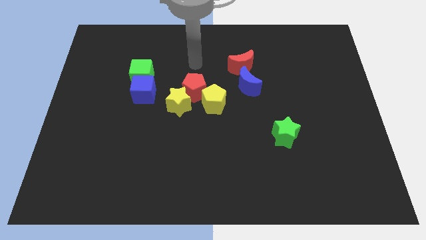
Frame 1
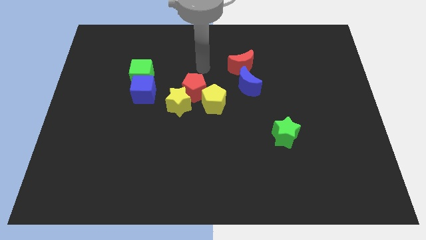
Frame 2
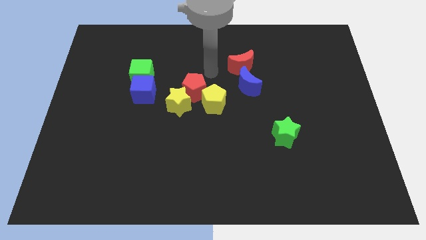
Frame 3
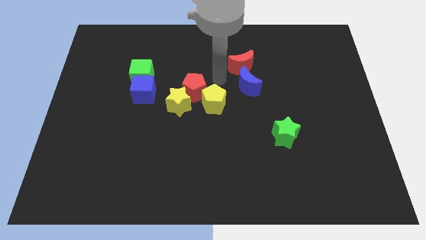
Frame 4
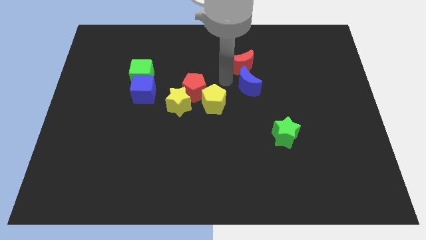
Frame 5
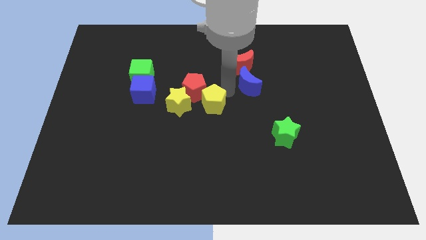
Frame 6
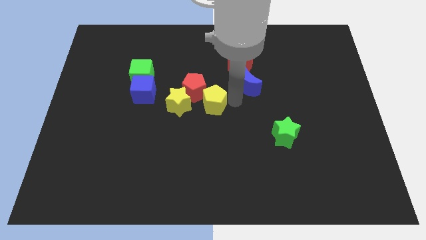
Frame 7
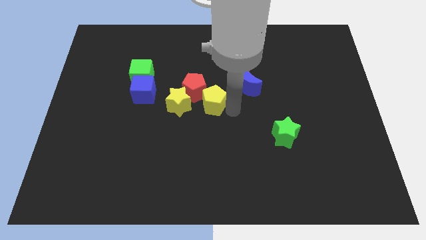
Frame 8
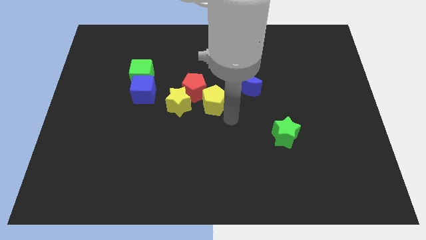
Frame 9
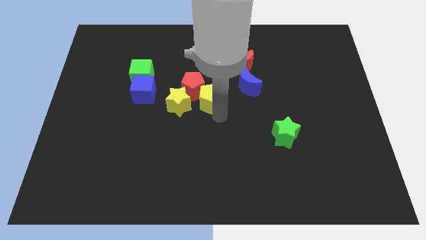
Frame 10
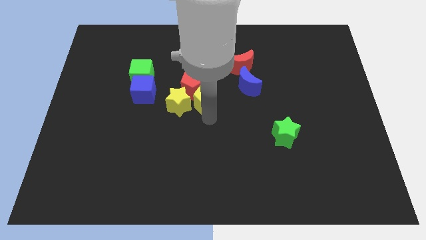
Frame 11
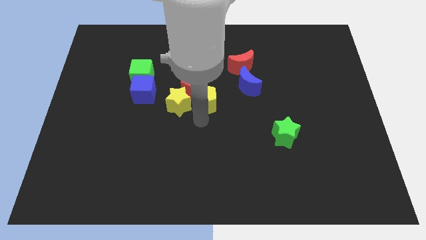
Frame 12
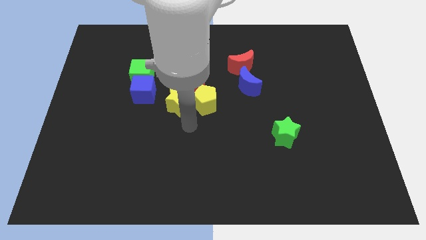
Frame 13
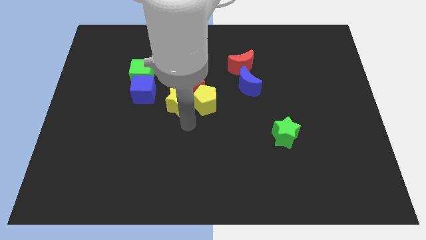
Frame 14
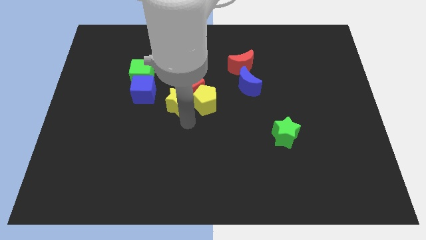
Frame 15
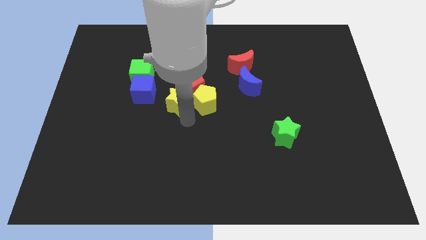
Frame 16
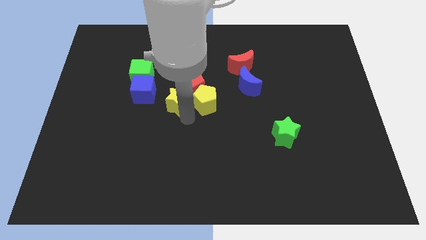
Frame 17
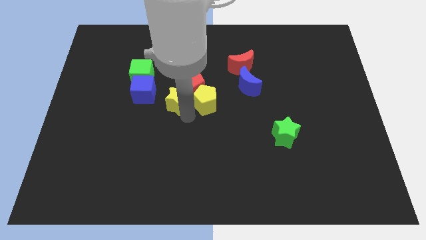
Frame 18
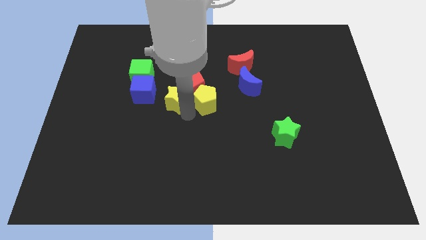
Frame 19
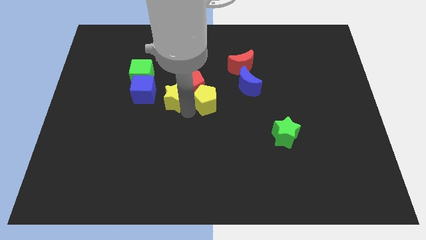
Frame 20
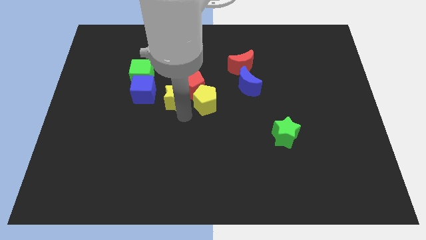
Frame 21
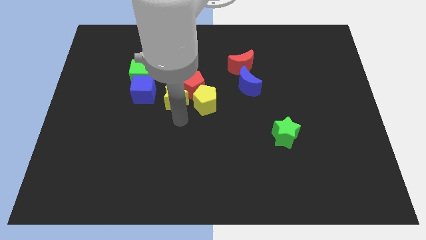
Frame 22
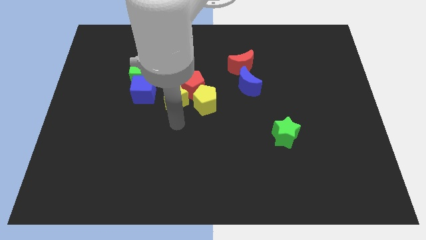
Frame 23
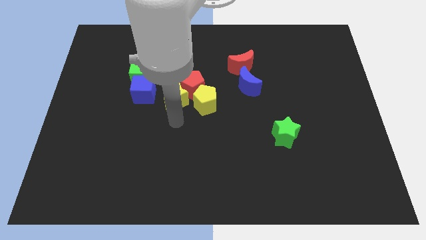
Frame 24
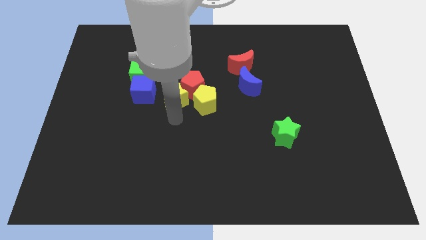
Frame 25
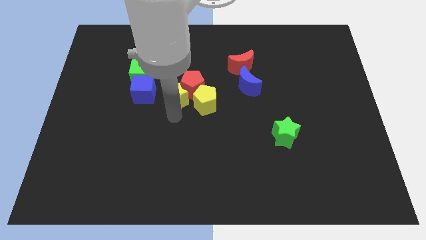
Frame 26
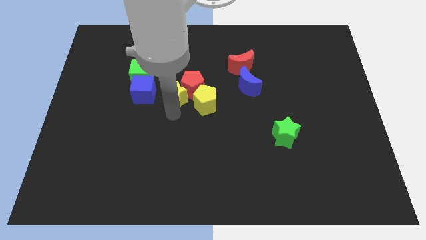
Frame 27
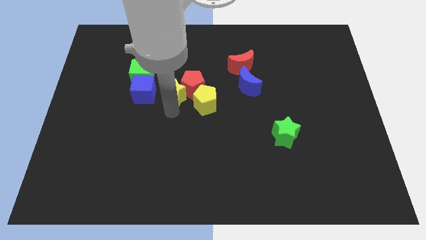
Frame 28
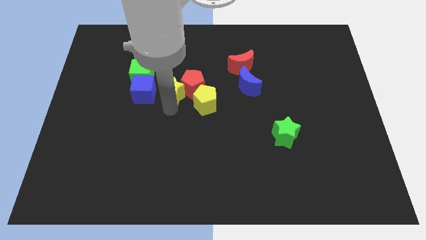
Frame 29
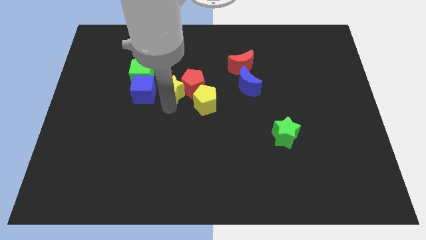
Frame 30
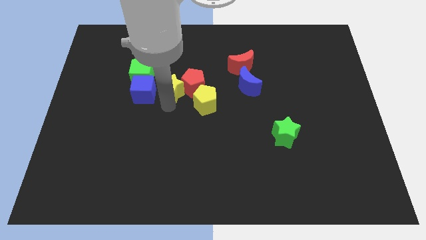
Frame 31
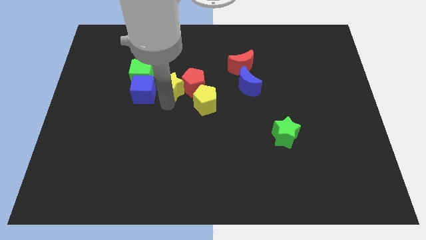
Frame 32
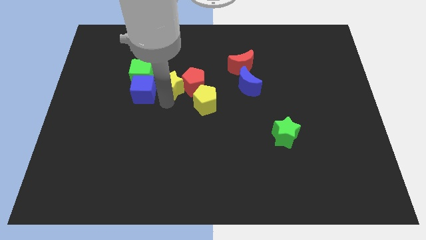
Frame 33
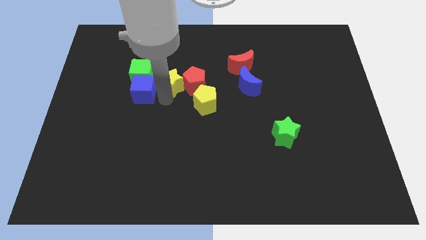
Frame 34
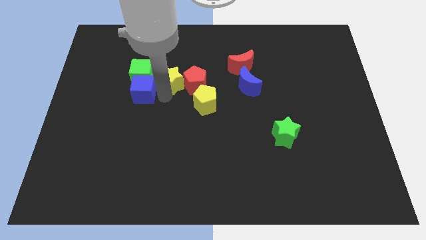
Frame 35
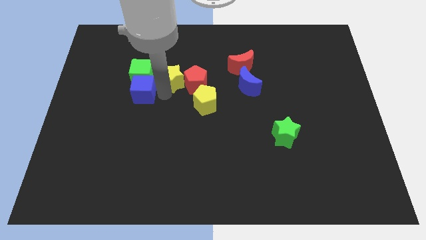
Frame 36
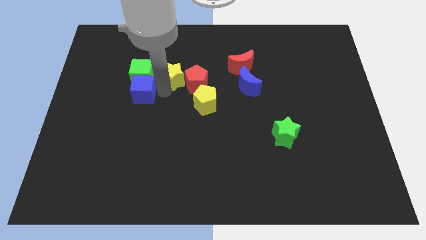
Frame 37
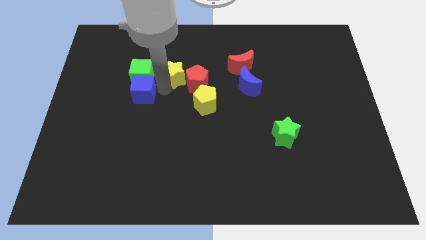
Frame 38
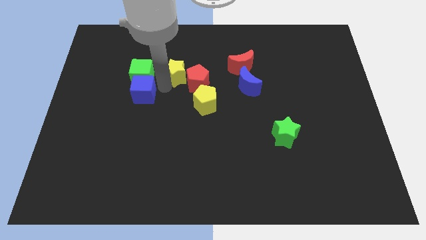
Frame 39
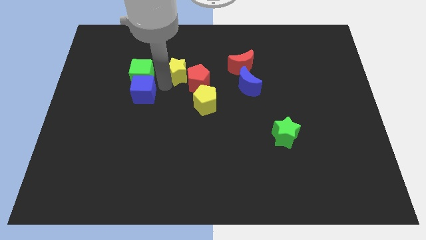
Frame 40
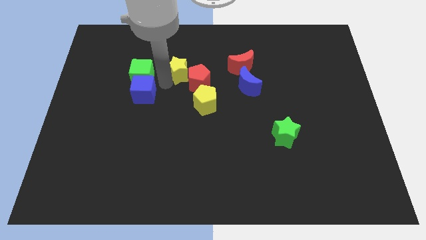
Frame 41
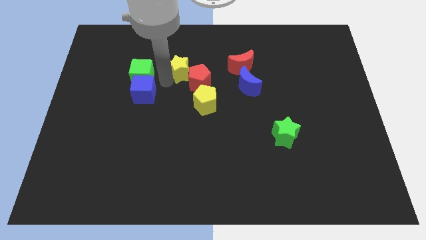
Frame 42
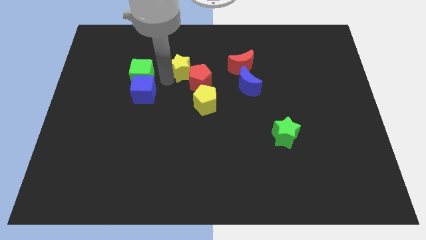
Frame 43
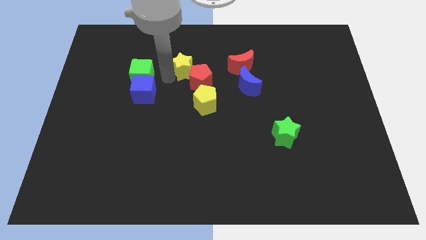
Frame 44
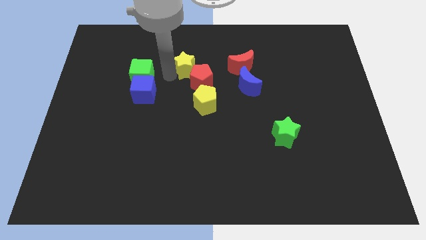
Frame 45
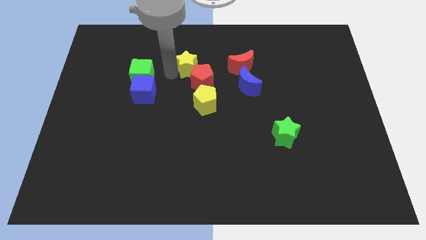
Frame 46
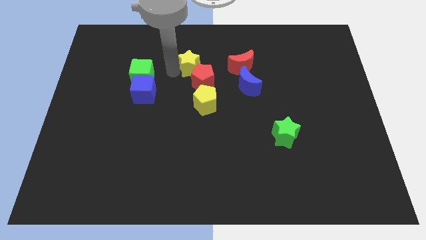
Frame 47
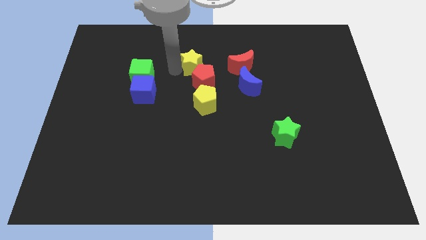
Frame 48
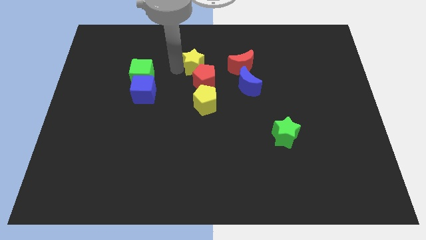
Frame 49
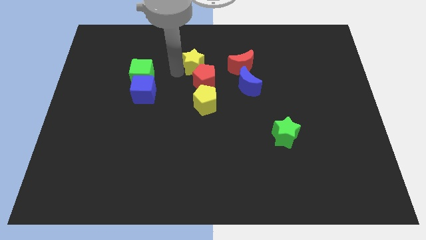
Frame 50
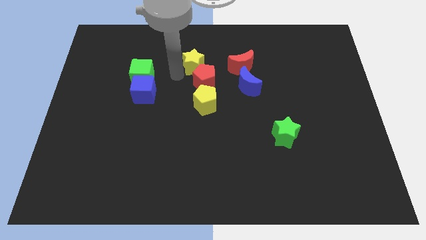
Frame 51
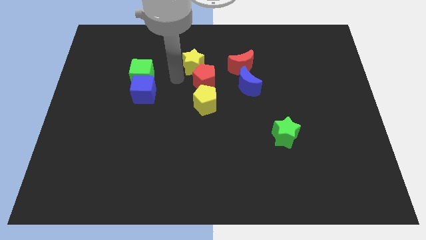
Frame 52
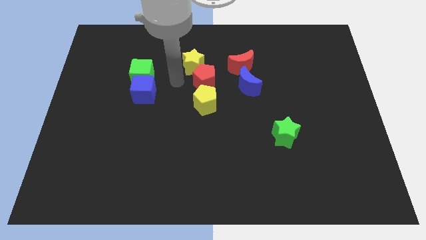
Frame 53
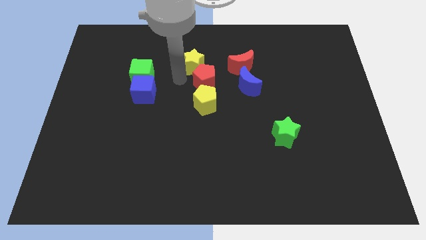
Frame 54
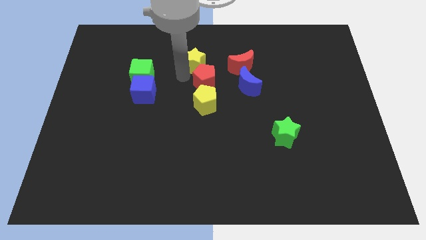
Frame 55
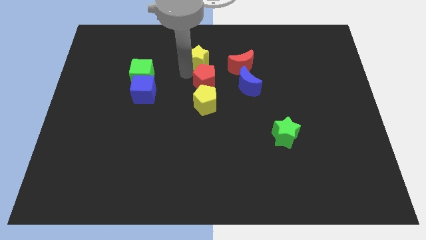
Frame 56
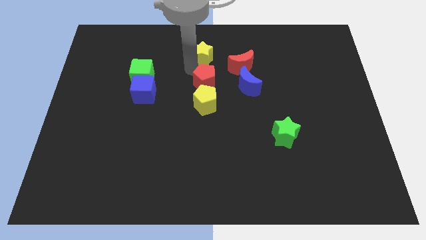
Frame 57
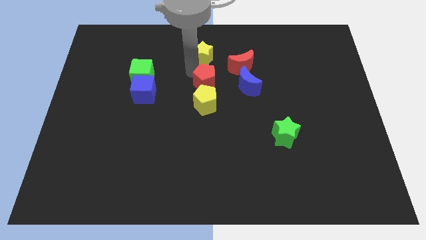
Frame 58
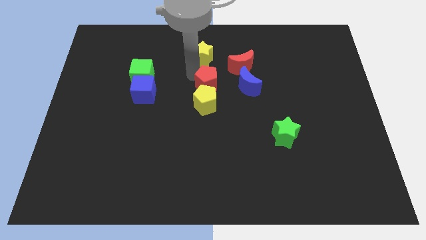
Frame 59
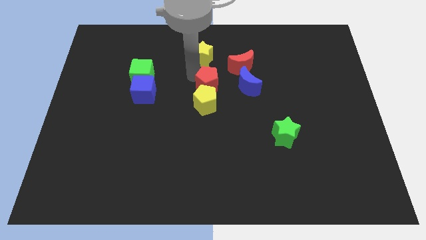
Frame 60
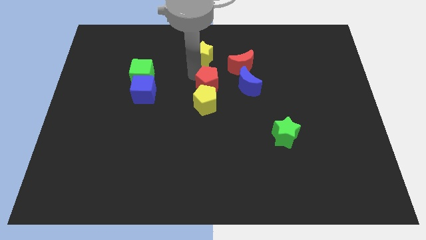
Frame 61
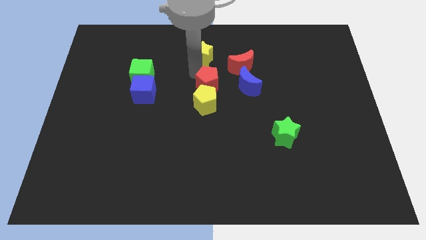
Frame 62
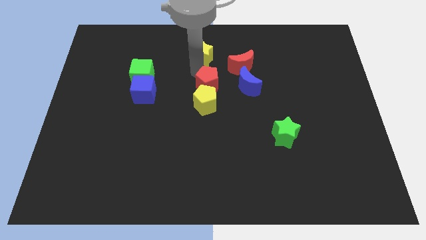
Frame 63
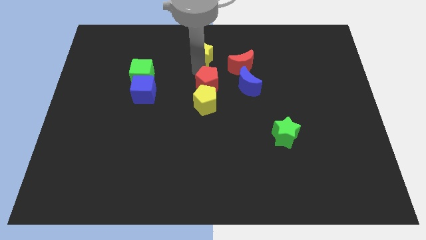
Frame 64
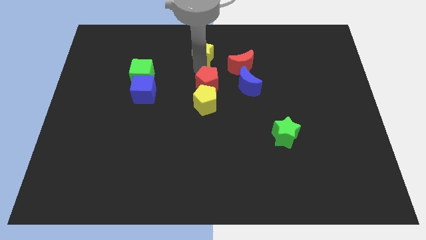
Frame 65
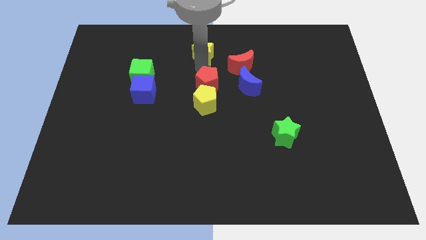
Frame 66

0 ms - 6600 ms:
push the yellow star to the top side
